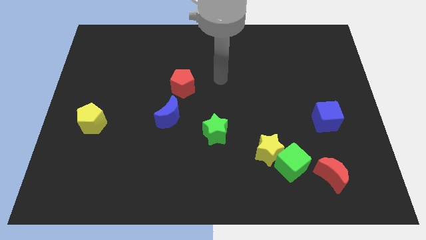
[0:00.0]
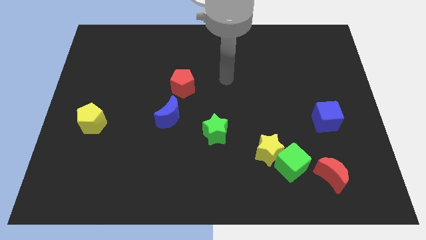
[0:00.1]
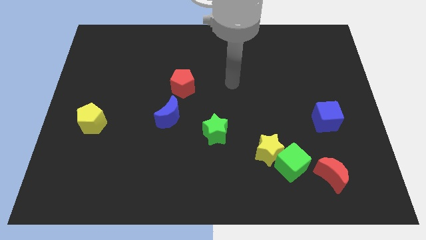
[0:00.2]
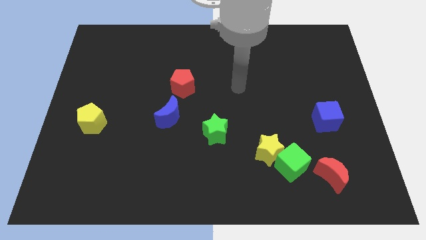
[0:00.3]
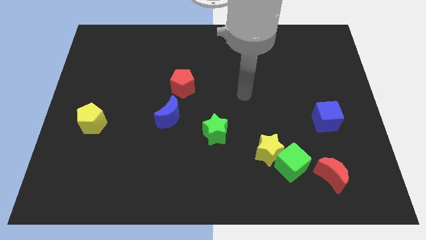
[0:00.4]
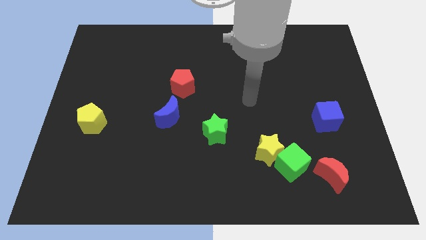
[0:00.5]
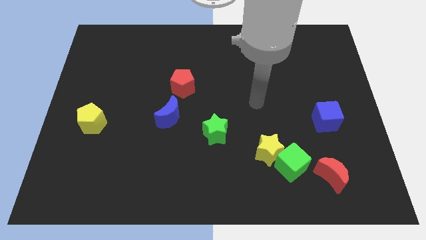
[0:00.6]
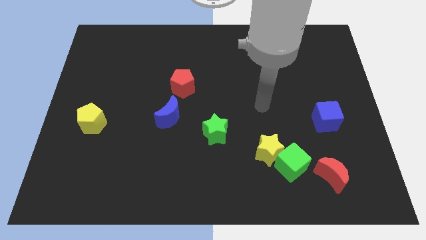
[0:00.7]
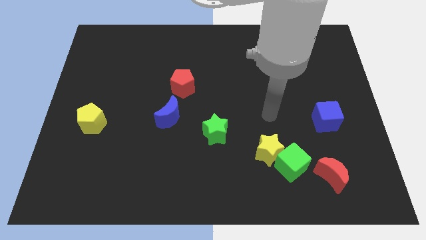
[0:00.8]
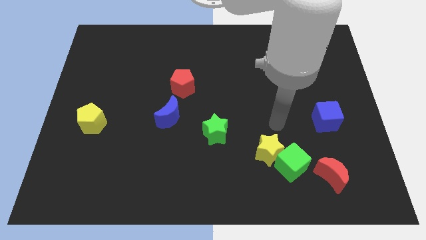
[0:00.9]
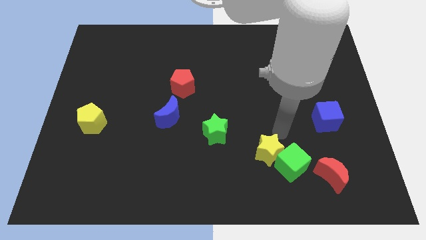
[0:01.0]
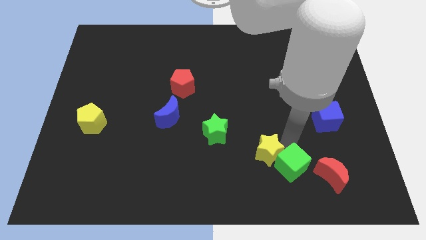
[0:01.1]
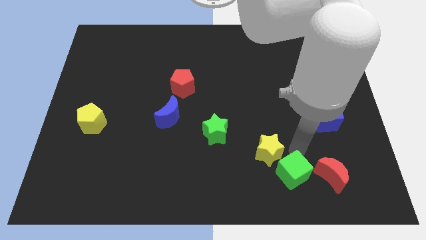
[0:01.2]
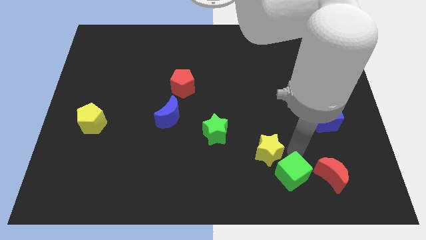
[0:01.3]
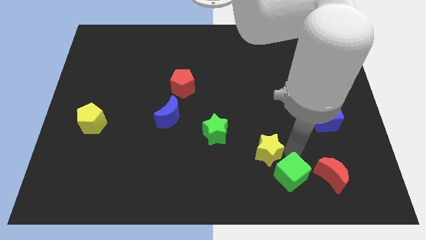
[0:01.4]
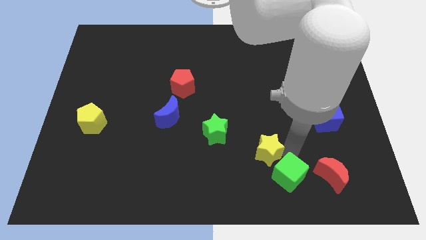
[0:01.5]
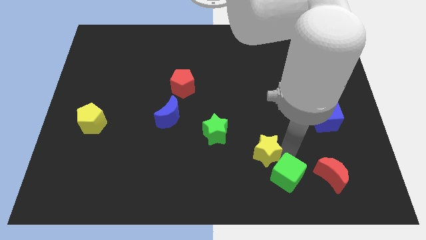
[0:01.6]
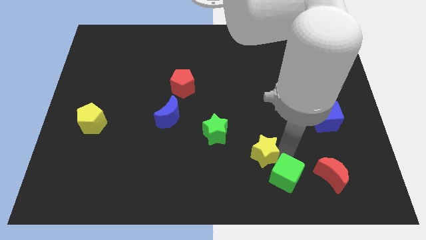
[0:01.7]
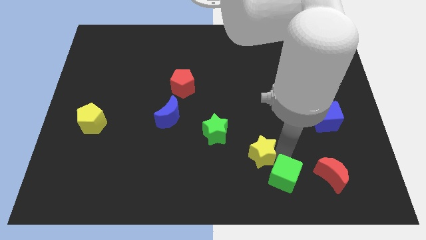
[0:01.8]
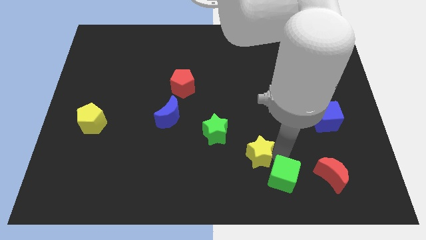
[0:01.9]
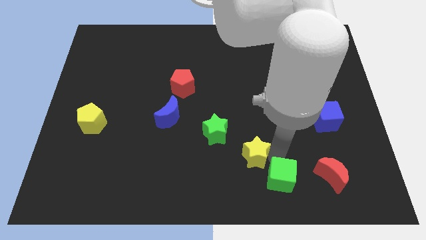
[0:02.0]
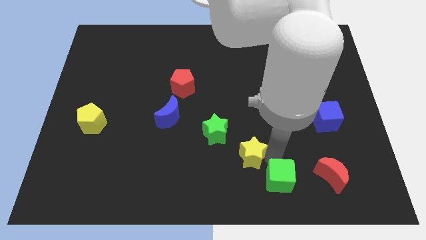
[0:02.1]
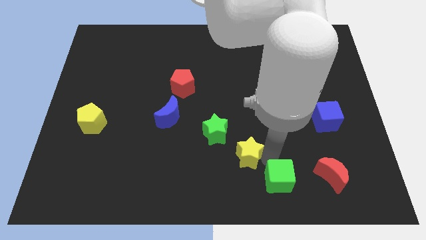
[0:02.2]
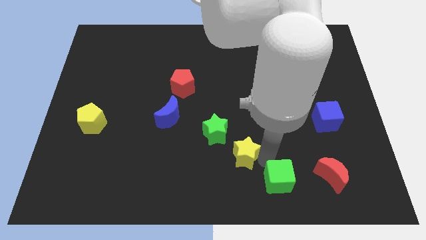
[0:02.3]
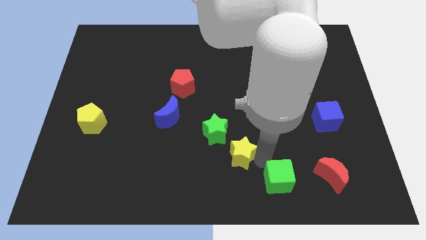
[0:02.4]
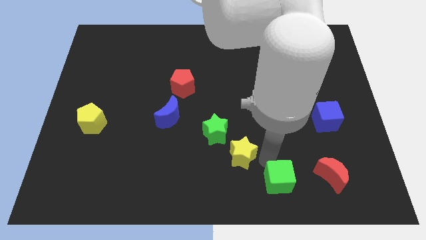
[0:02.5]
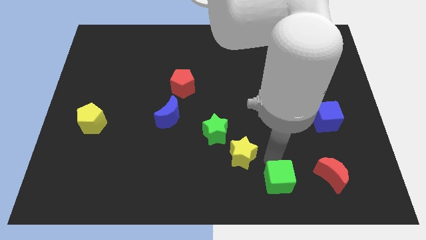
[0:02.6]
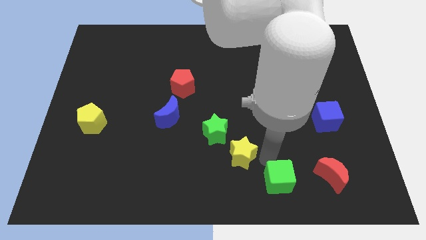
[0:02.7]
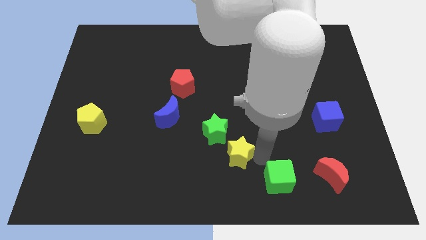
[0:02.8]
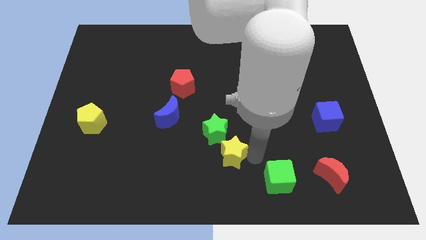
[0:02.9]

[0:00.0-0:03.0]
separate the yellow star from the green cube

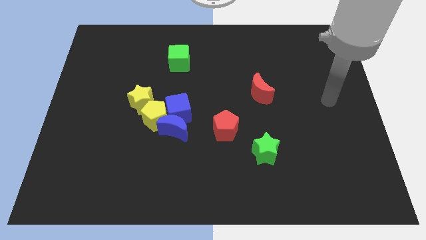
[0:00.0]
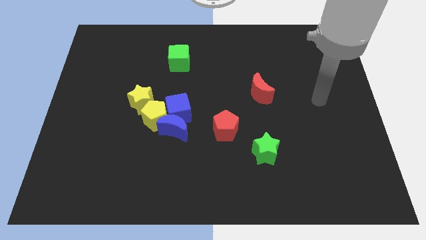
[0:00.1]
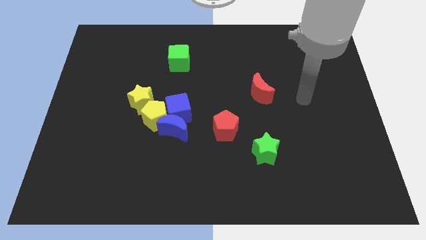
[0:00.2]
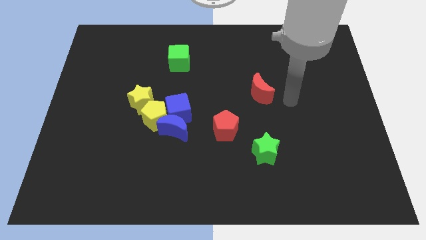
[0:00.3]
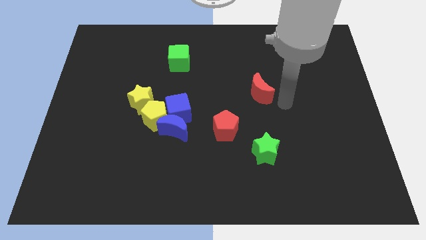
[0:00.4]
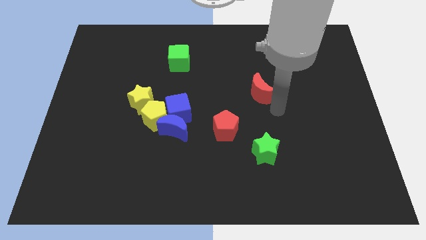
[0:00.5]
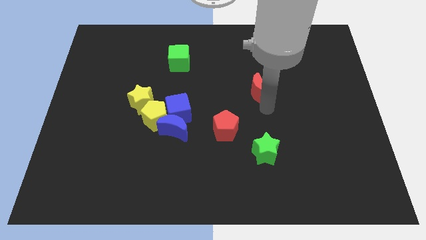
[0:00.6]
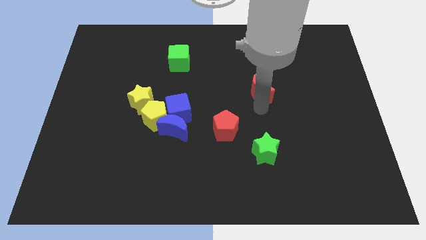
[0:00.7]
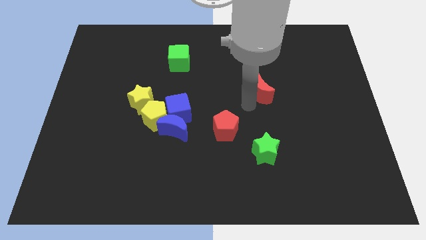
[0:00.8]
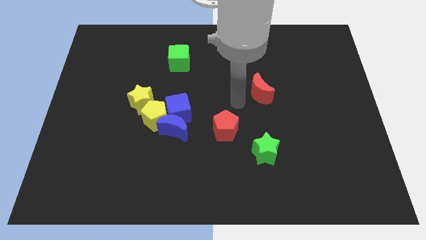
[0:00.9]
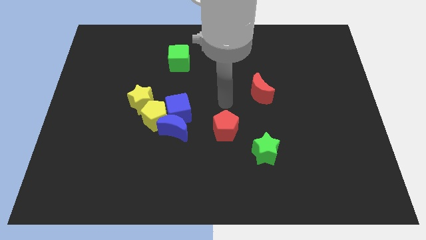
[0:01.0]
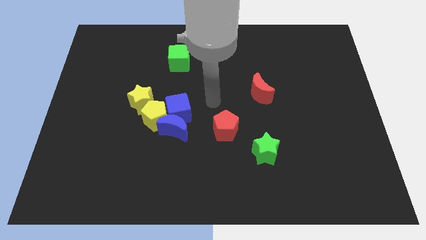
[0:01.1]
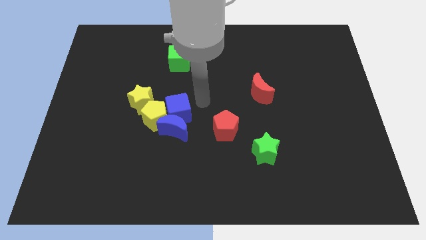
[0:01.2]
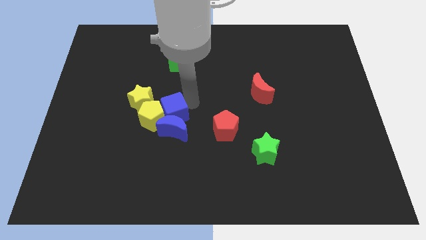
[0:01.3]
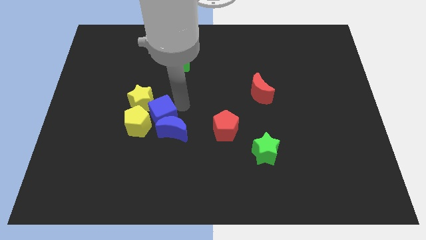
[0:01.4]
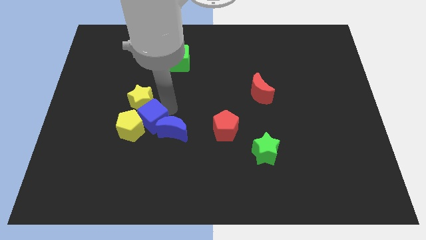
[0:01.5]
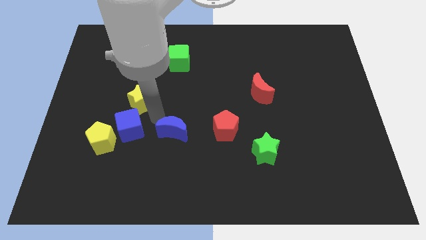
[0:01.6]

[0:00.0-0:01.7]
pull the blue moon apart from the blue cube and yellow pentagon

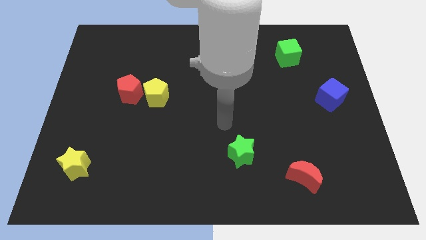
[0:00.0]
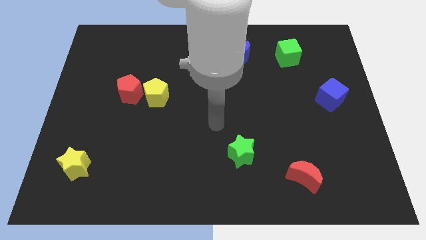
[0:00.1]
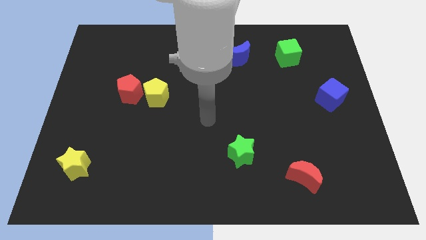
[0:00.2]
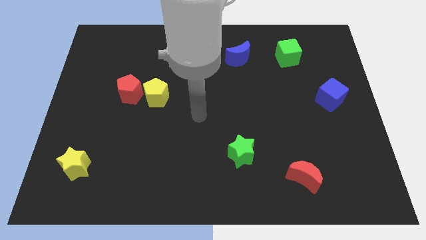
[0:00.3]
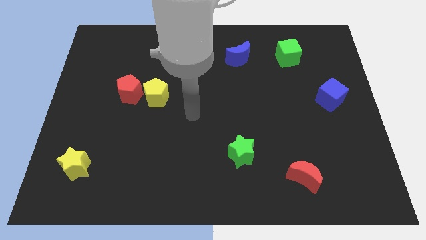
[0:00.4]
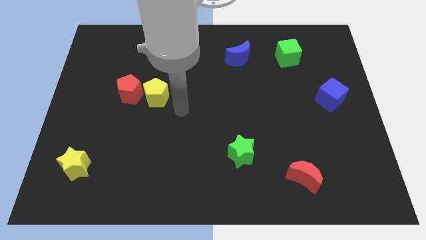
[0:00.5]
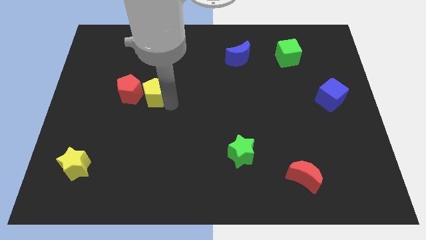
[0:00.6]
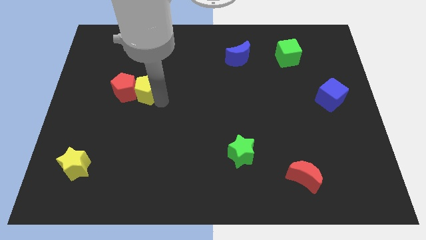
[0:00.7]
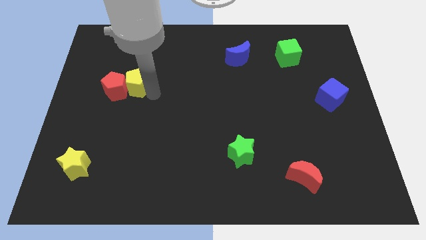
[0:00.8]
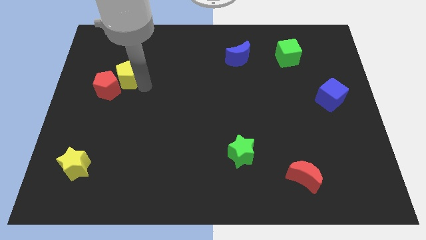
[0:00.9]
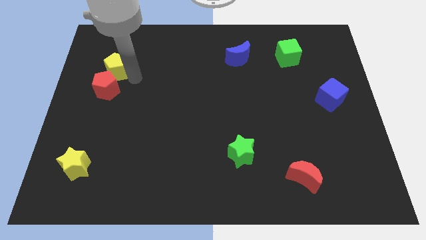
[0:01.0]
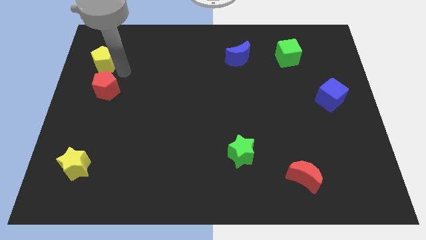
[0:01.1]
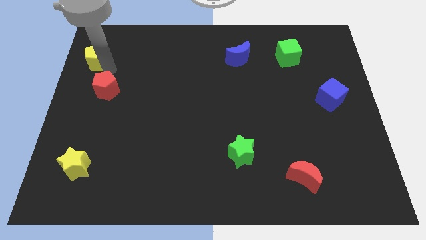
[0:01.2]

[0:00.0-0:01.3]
move the red pentagon away from the yellow pentagon

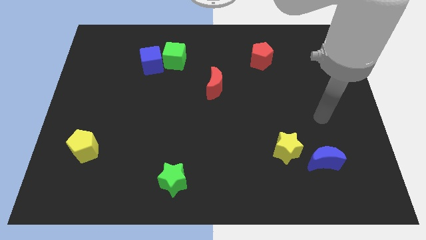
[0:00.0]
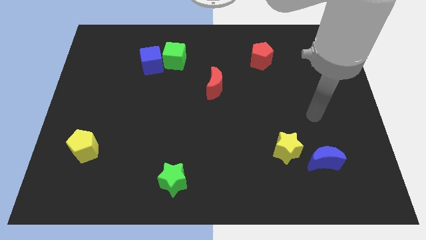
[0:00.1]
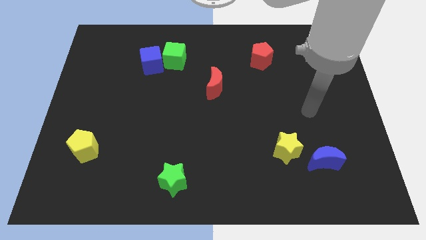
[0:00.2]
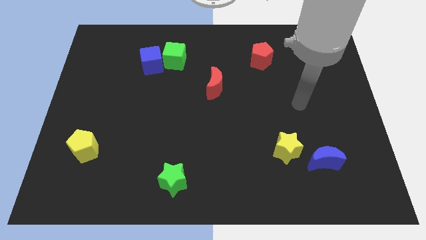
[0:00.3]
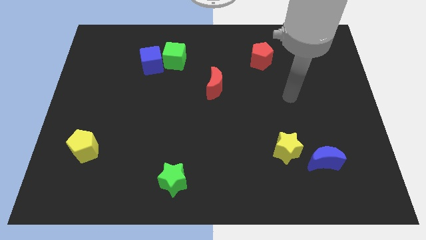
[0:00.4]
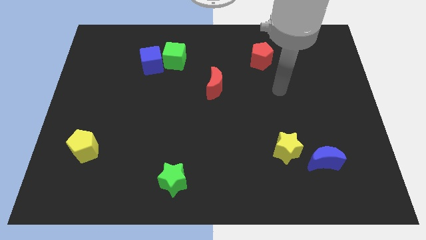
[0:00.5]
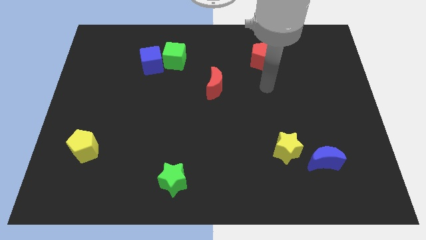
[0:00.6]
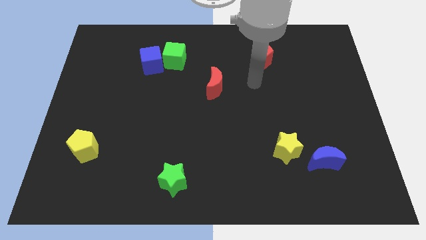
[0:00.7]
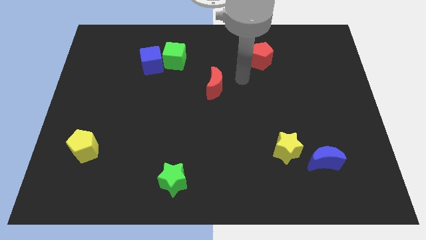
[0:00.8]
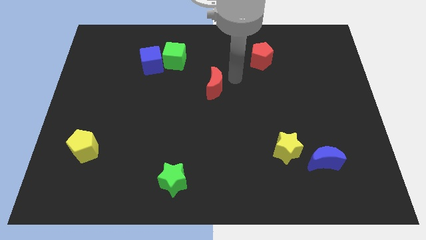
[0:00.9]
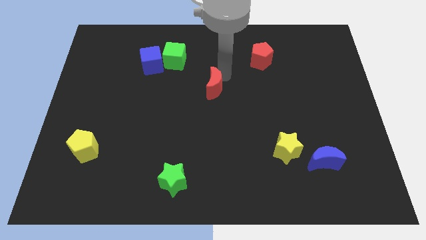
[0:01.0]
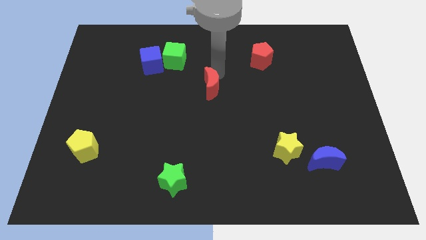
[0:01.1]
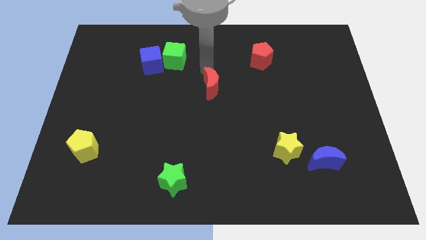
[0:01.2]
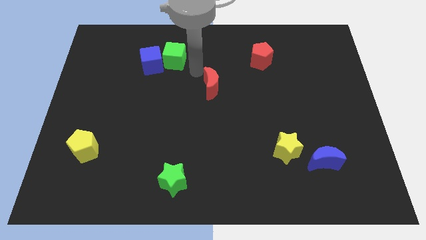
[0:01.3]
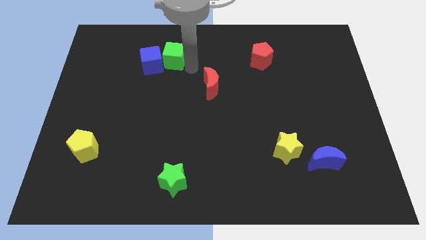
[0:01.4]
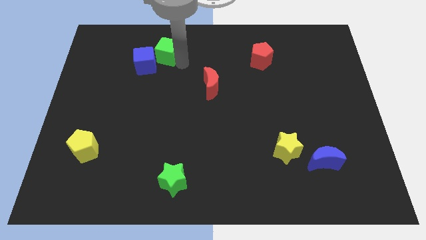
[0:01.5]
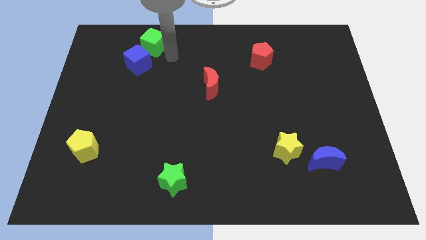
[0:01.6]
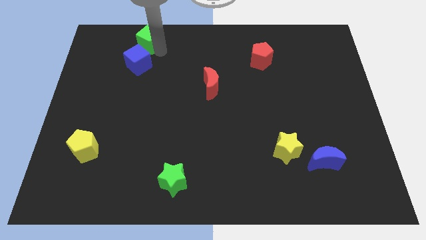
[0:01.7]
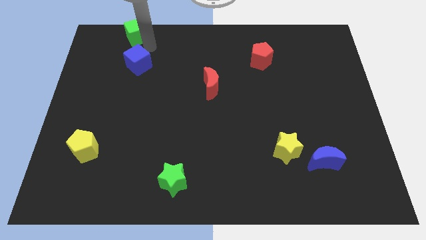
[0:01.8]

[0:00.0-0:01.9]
pull the blue cube apart from the green cube

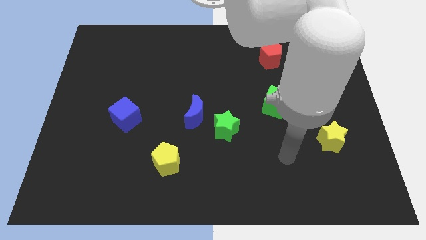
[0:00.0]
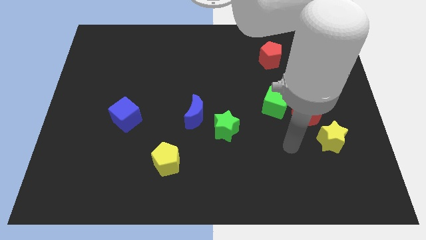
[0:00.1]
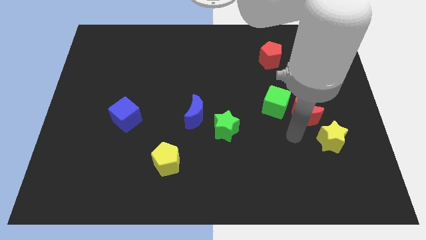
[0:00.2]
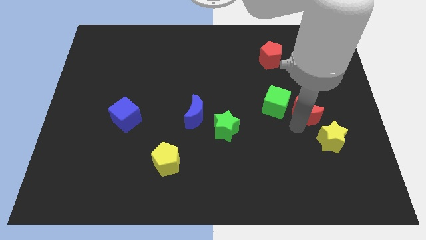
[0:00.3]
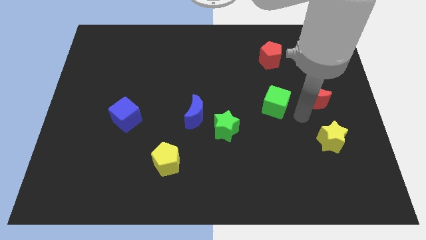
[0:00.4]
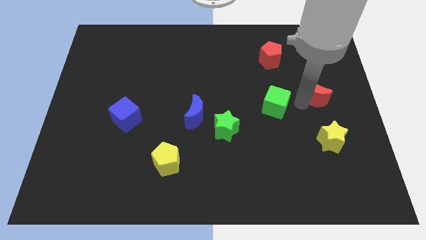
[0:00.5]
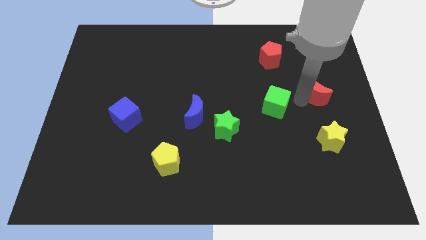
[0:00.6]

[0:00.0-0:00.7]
separate the green cube from the red moon

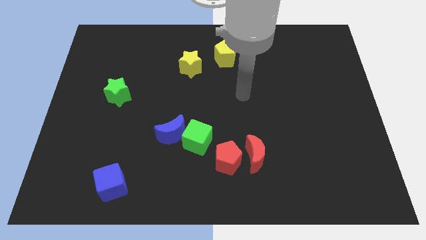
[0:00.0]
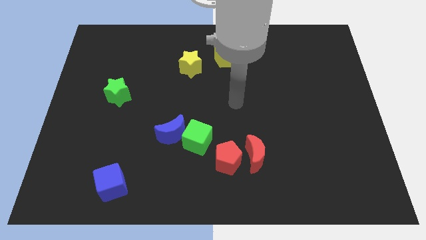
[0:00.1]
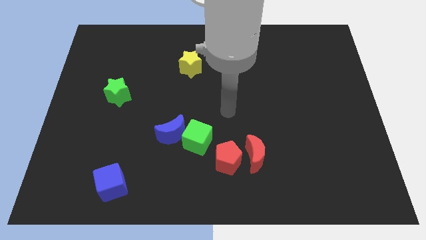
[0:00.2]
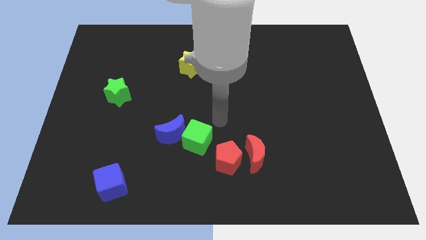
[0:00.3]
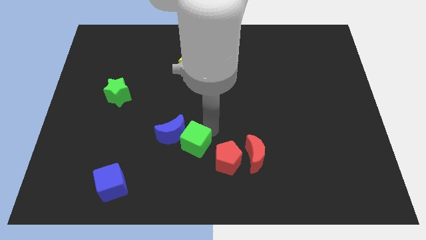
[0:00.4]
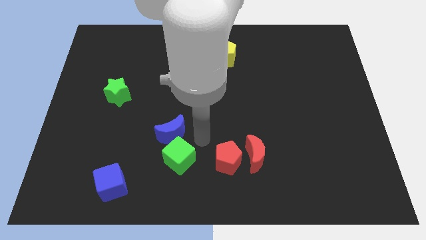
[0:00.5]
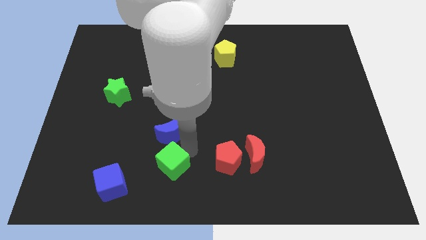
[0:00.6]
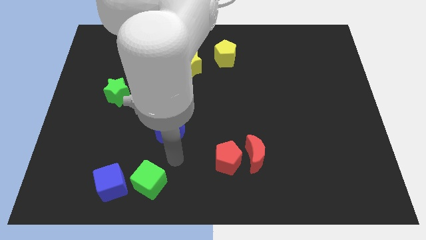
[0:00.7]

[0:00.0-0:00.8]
pull the blue moon apart from the green cube
